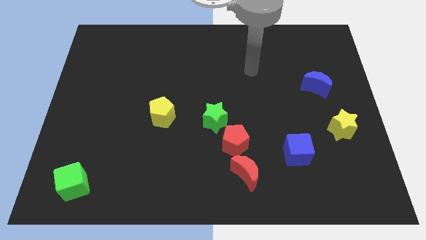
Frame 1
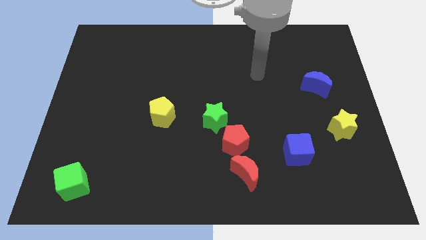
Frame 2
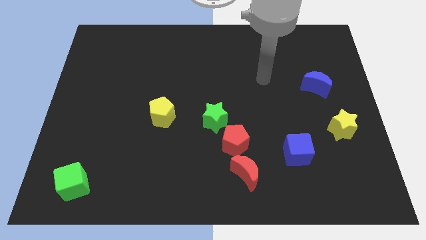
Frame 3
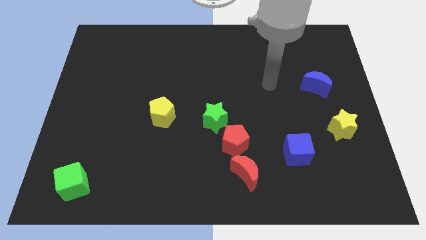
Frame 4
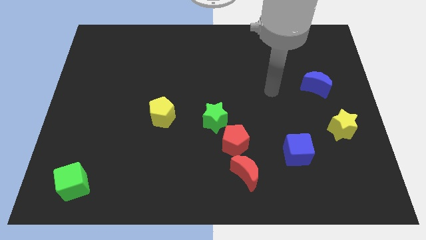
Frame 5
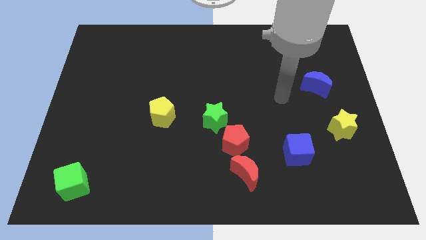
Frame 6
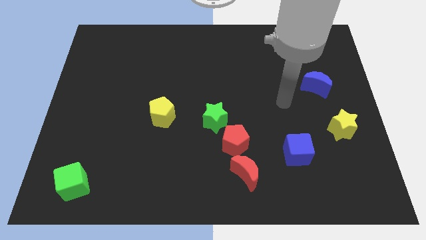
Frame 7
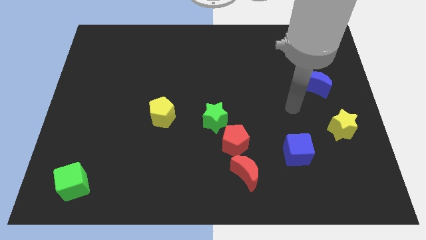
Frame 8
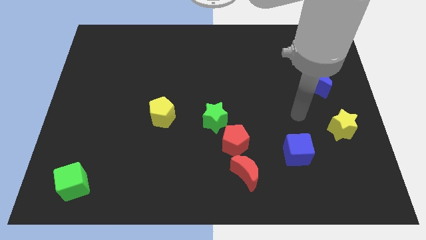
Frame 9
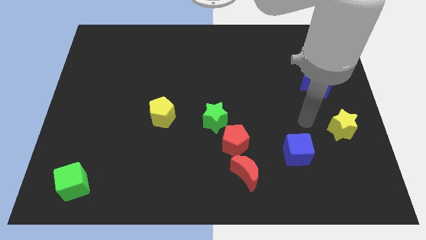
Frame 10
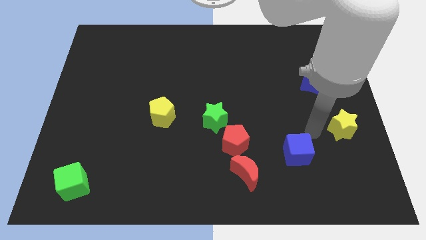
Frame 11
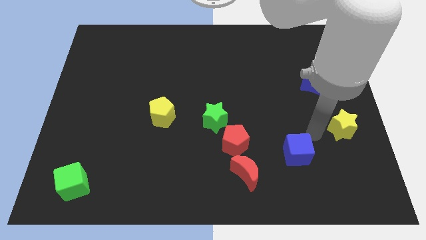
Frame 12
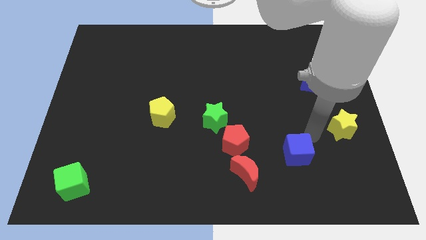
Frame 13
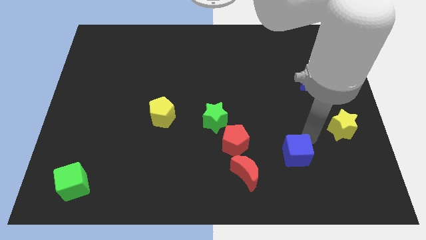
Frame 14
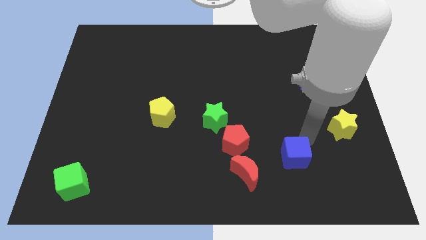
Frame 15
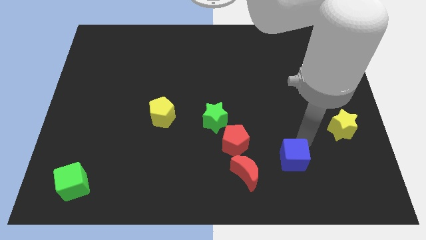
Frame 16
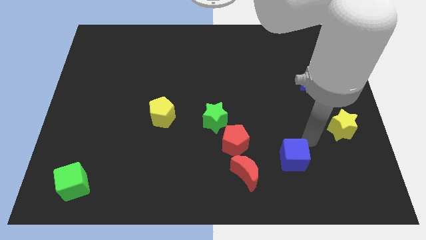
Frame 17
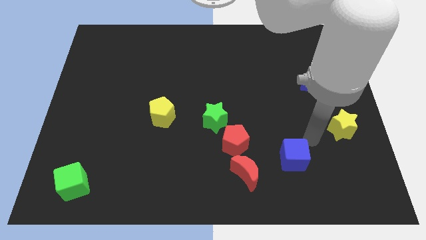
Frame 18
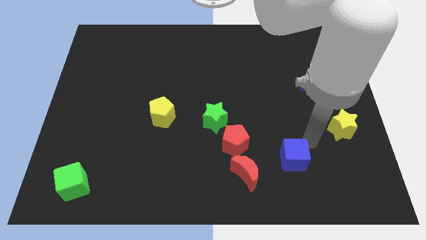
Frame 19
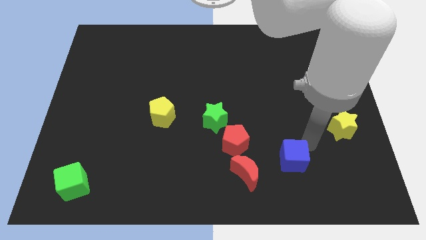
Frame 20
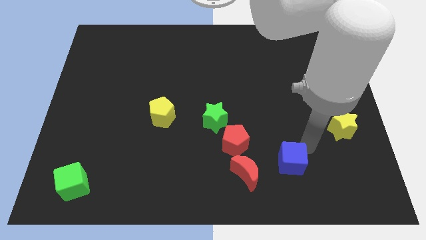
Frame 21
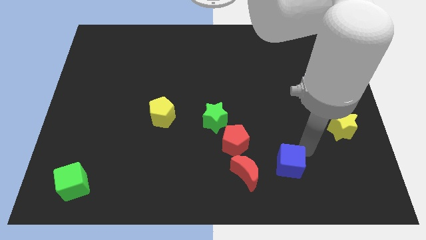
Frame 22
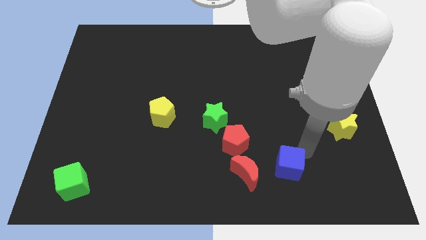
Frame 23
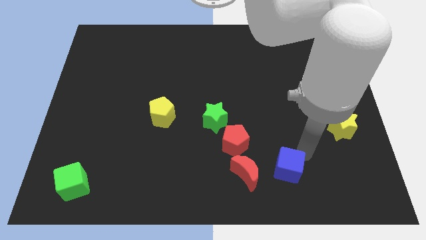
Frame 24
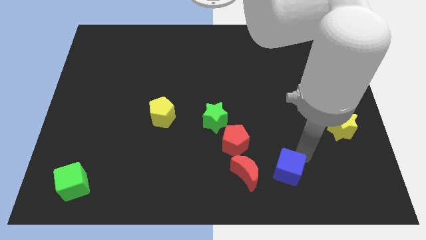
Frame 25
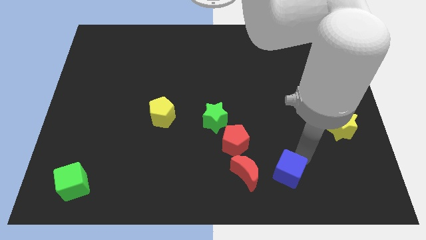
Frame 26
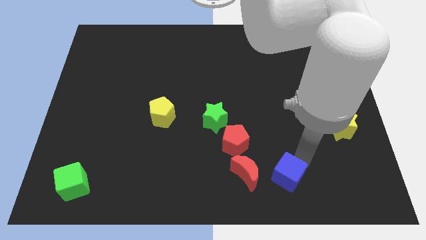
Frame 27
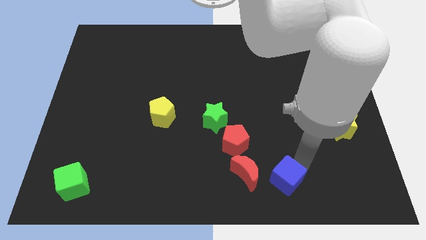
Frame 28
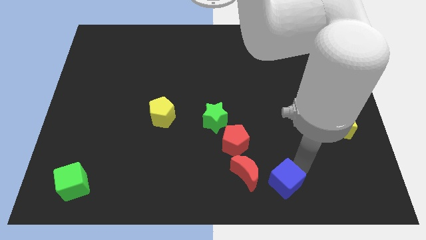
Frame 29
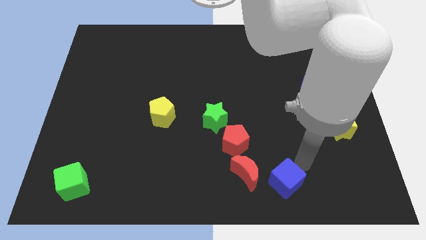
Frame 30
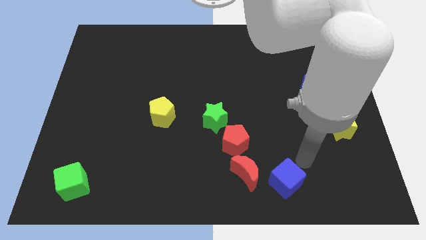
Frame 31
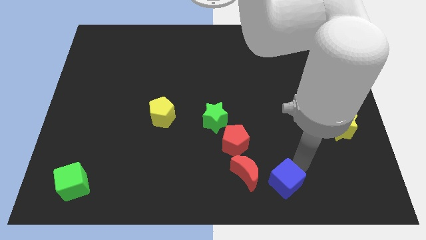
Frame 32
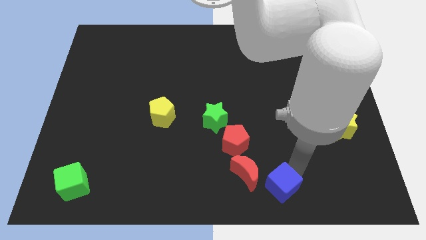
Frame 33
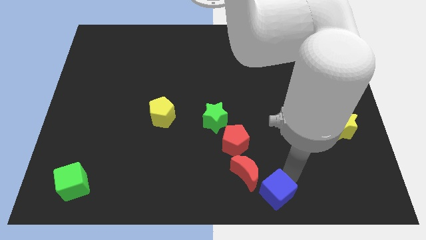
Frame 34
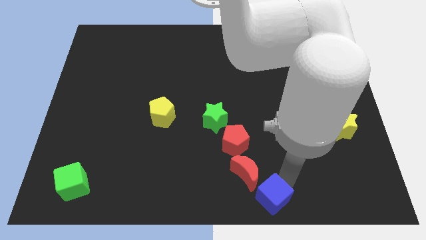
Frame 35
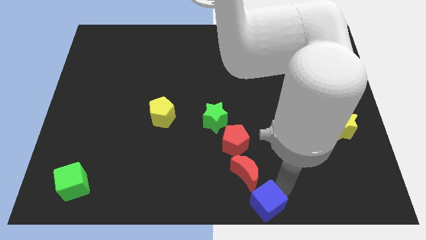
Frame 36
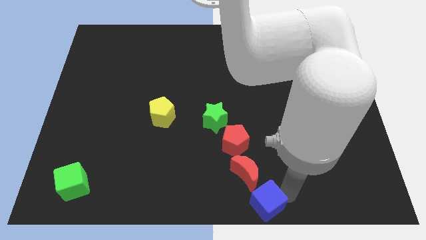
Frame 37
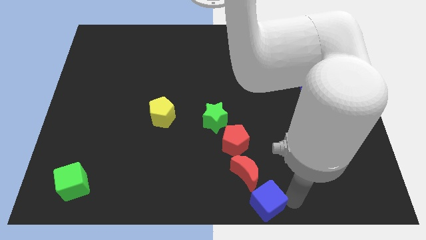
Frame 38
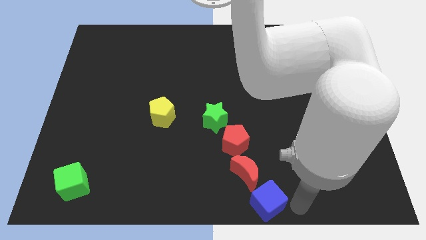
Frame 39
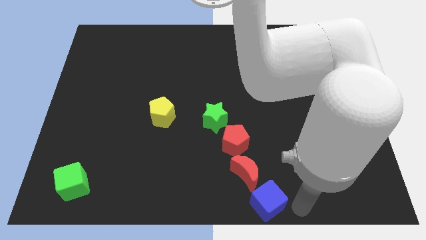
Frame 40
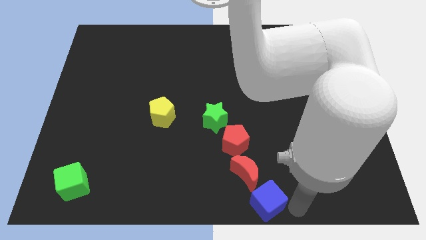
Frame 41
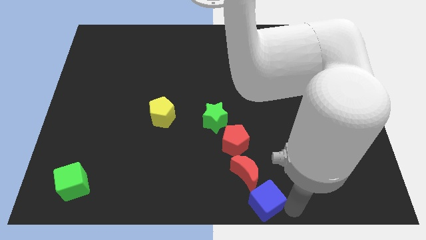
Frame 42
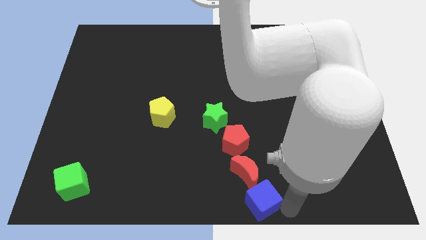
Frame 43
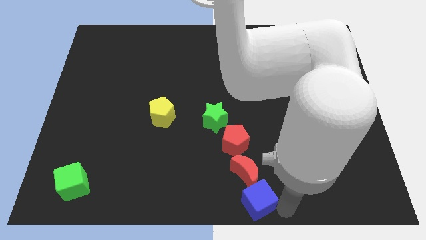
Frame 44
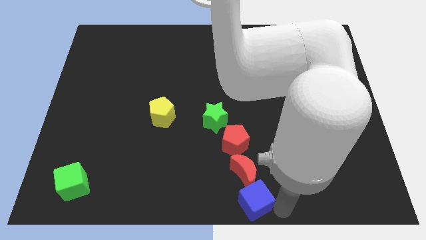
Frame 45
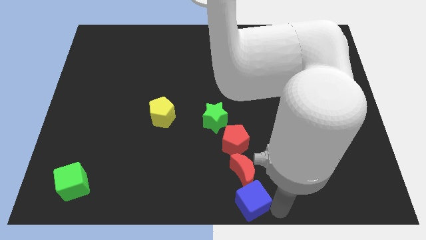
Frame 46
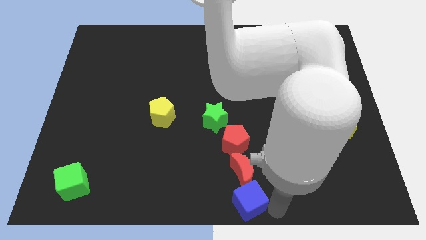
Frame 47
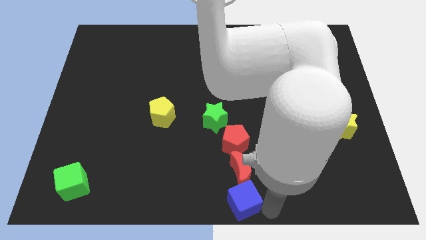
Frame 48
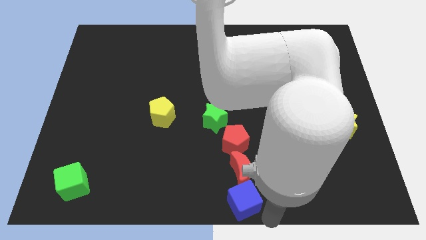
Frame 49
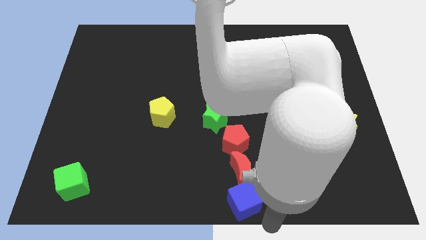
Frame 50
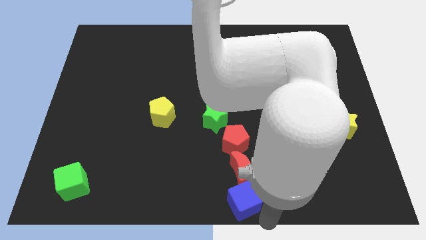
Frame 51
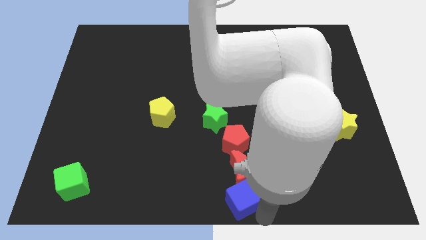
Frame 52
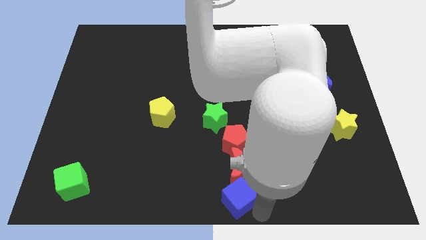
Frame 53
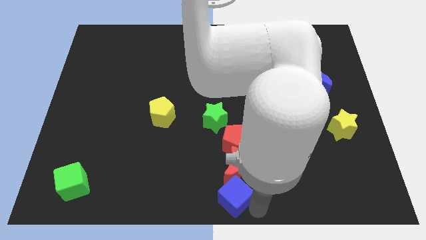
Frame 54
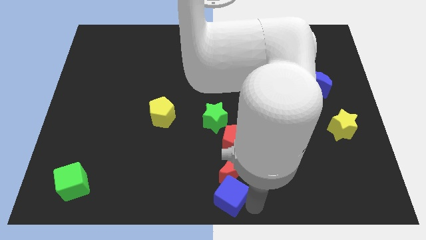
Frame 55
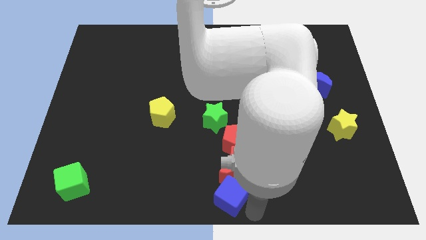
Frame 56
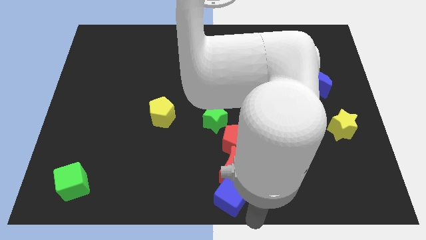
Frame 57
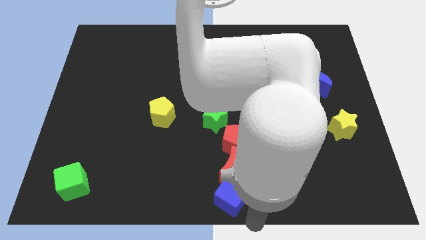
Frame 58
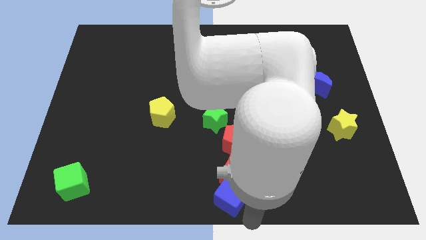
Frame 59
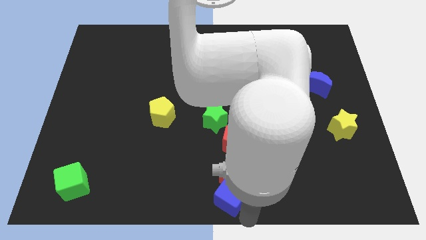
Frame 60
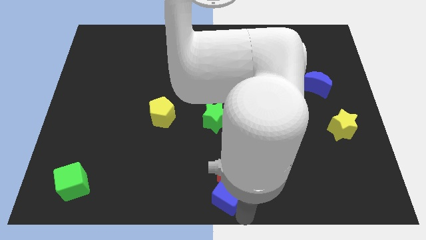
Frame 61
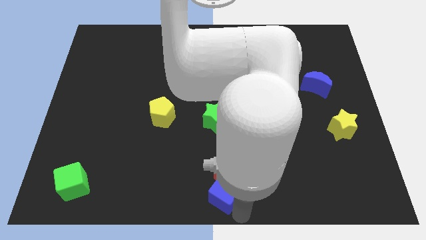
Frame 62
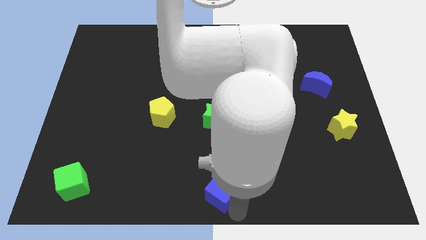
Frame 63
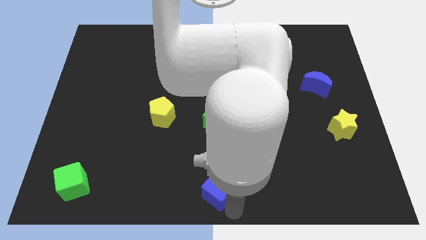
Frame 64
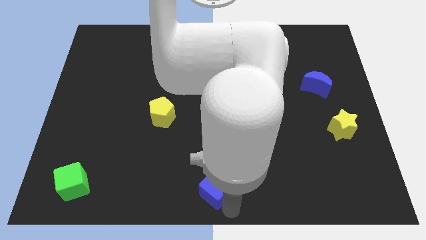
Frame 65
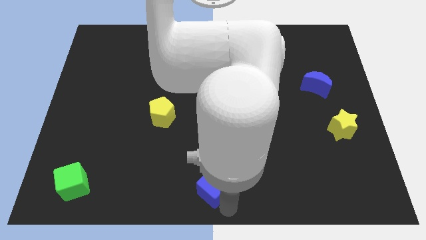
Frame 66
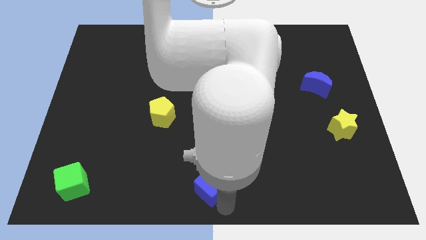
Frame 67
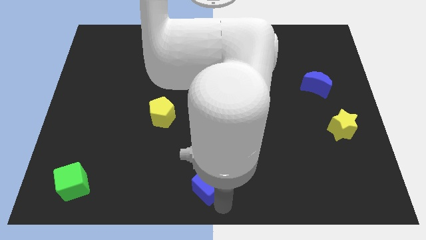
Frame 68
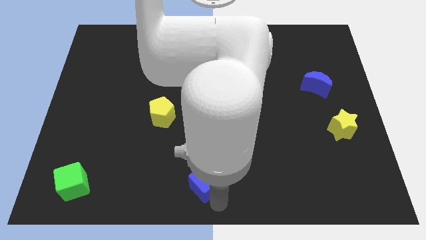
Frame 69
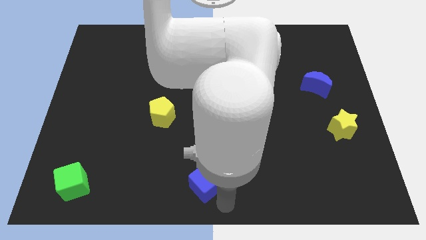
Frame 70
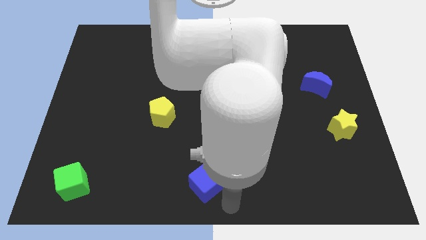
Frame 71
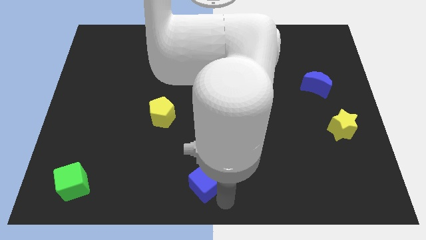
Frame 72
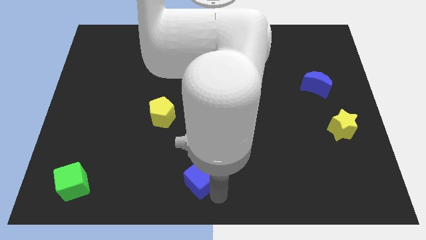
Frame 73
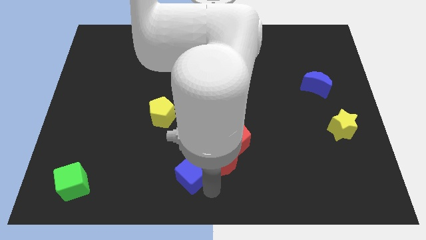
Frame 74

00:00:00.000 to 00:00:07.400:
slide the blue cube to the left
